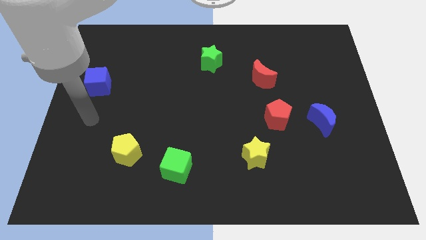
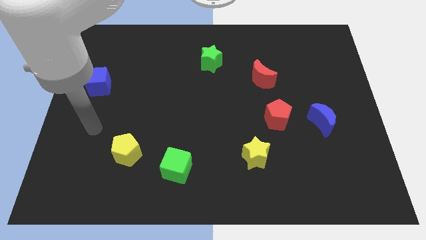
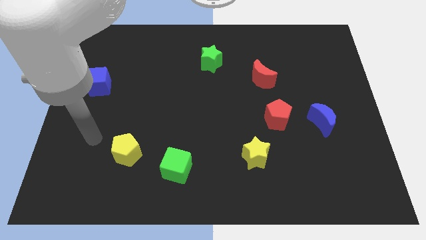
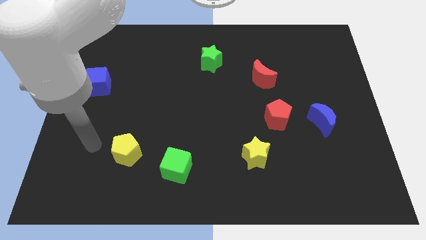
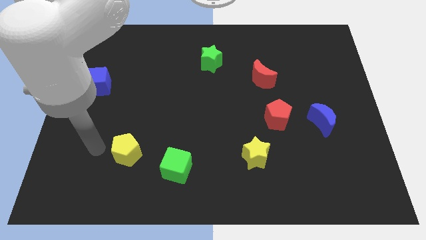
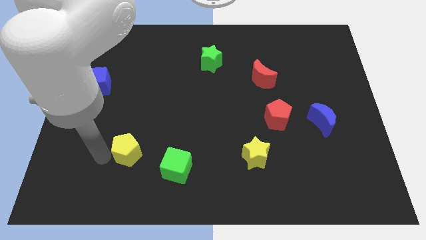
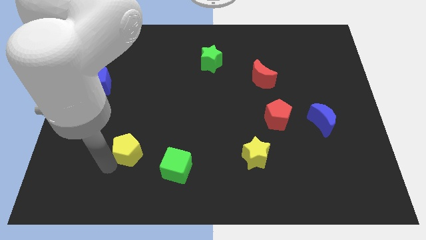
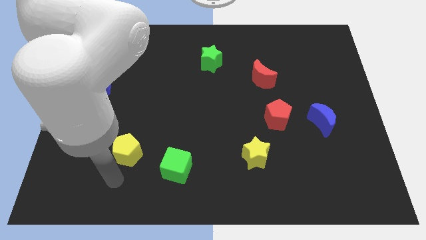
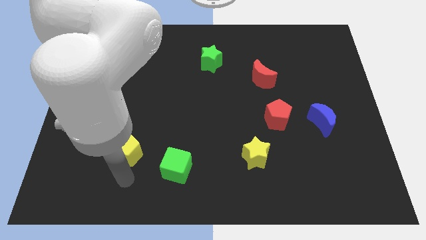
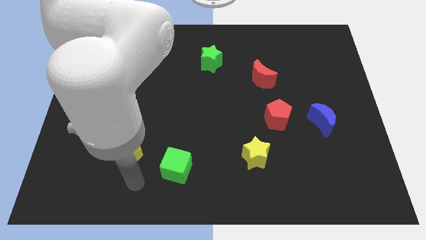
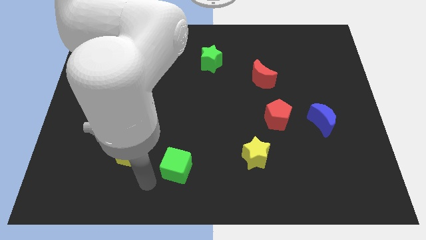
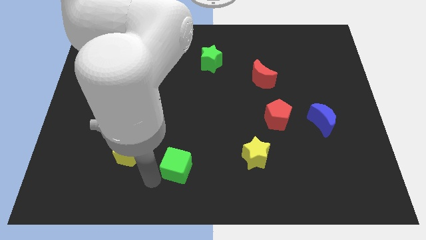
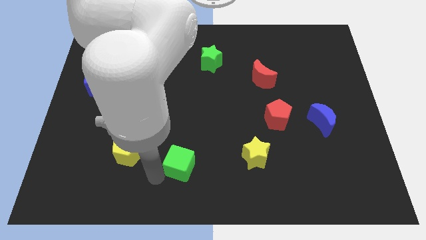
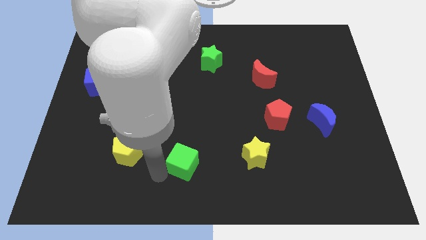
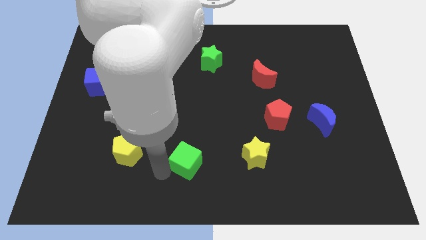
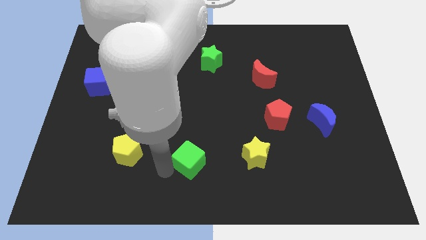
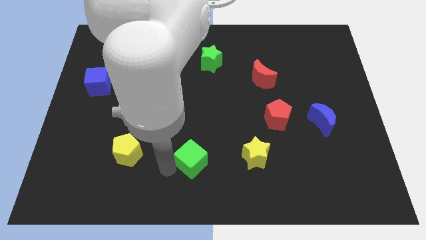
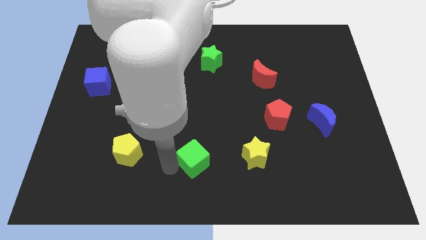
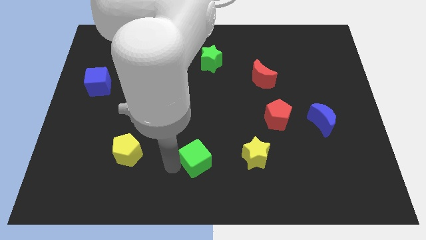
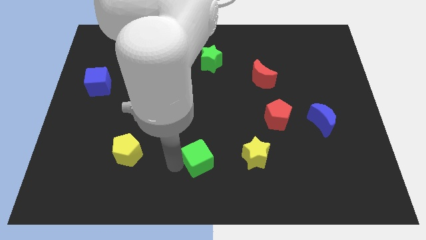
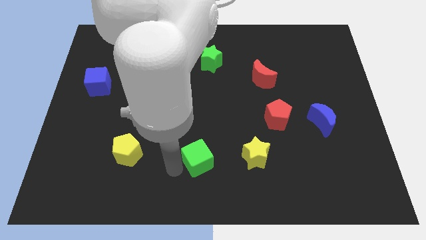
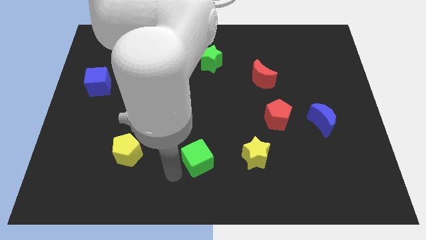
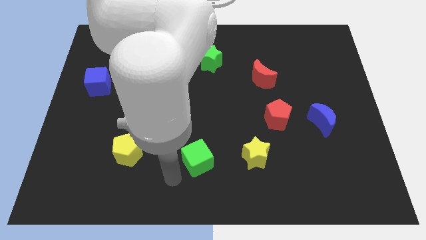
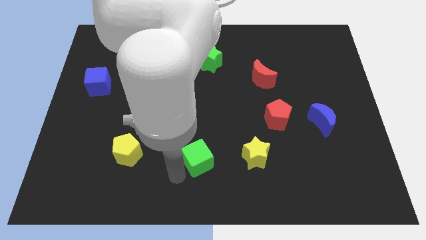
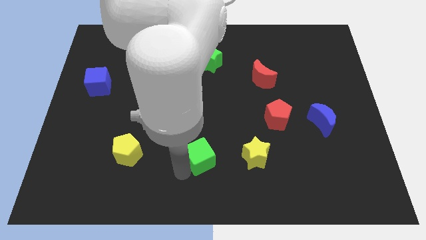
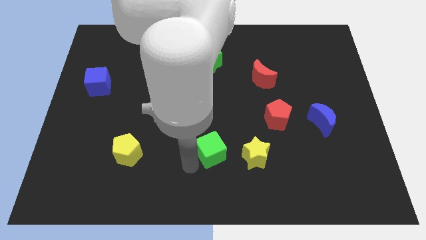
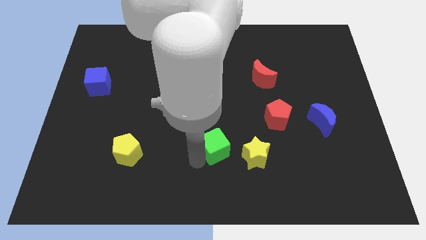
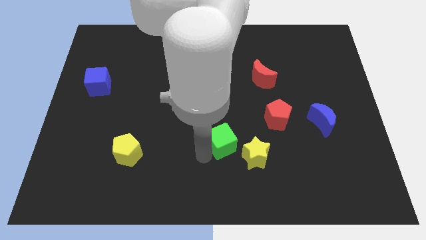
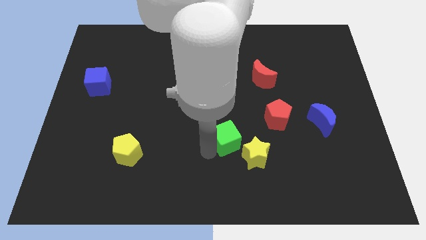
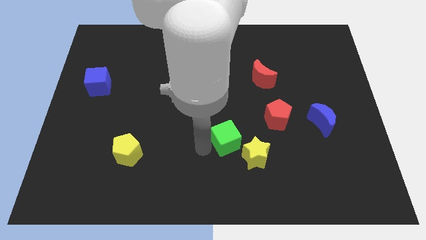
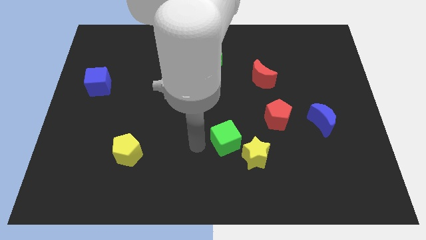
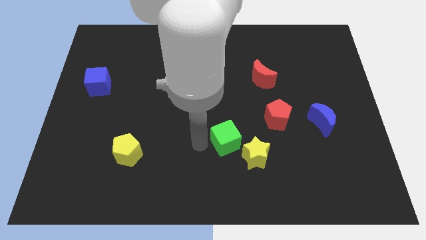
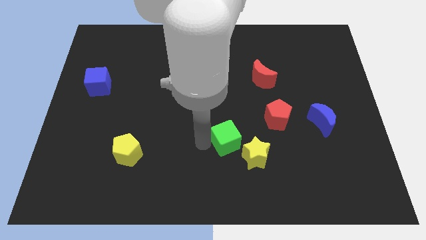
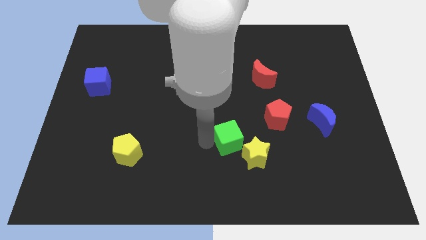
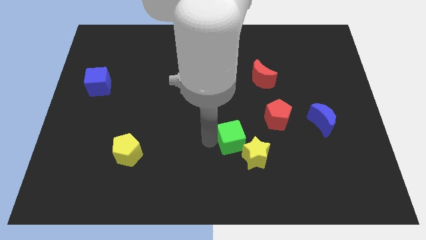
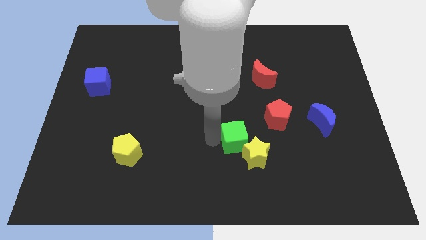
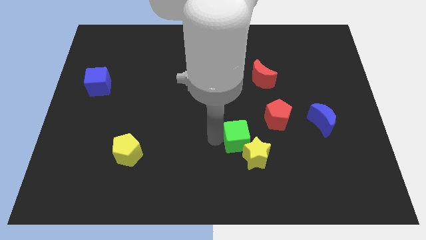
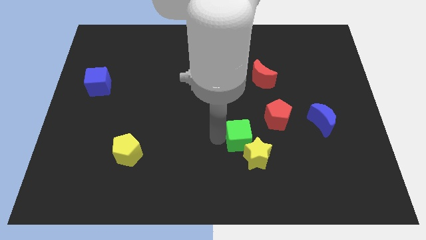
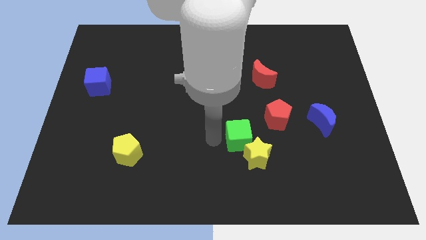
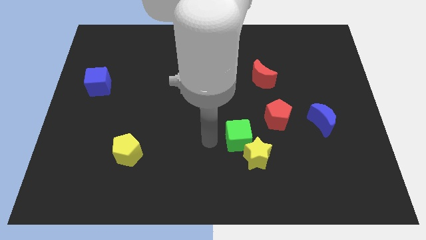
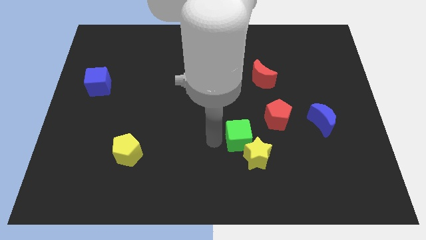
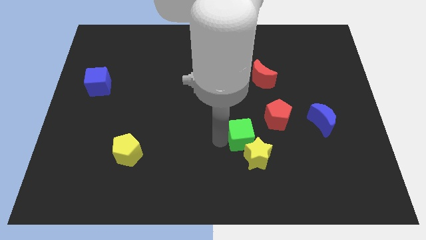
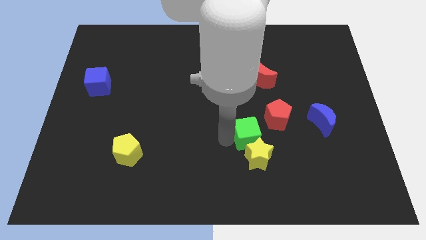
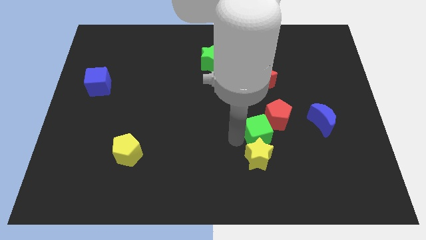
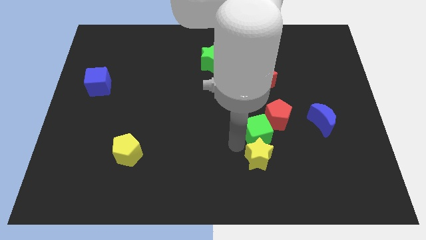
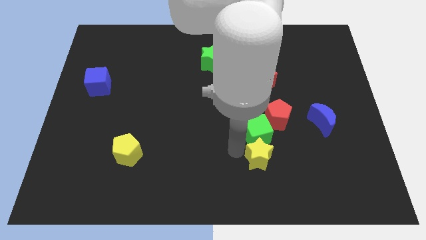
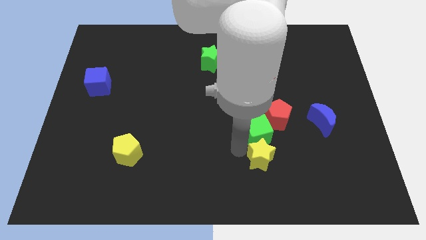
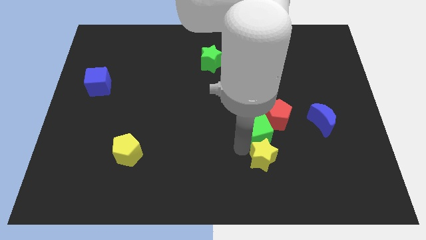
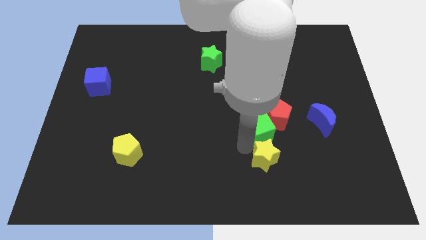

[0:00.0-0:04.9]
slide the green cube next to the red pentagon

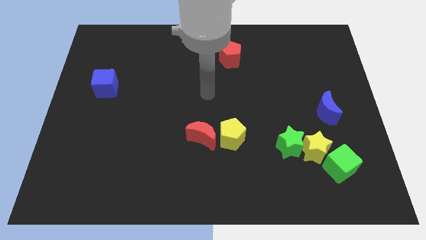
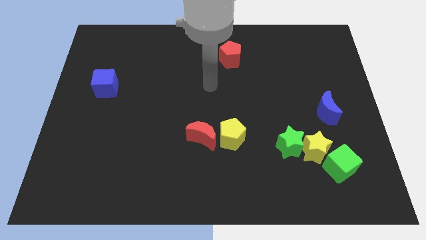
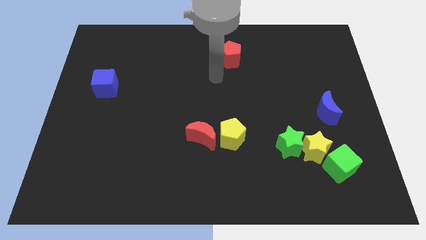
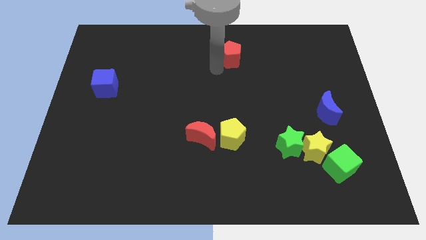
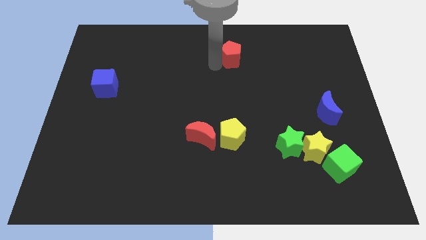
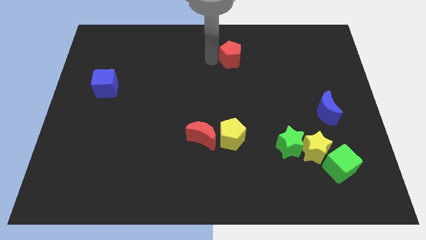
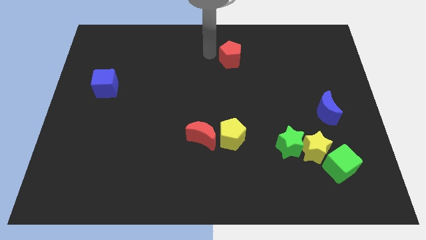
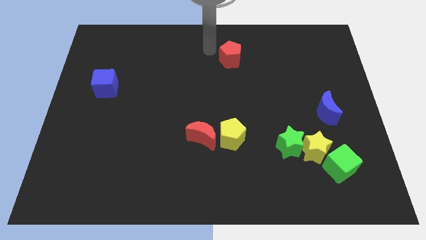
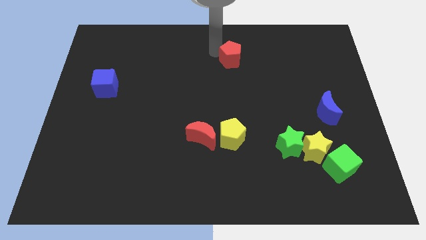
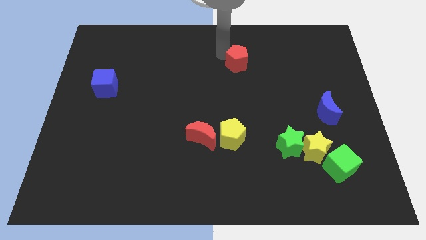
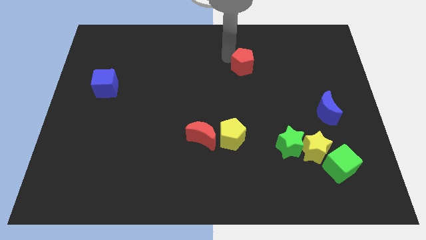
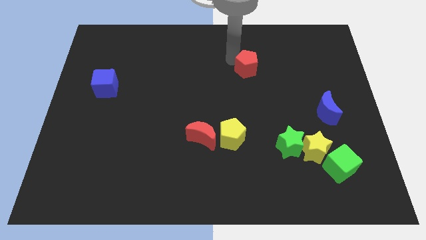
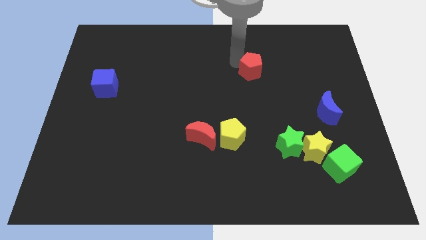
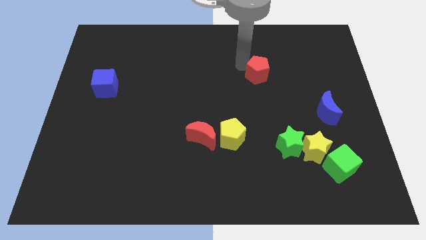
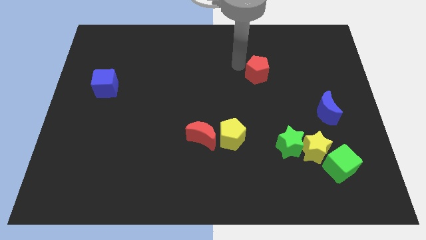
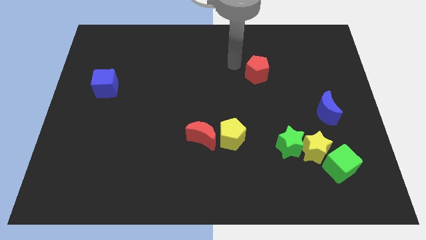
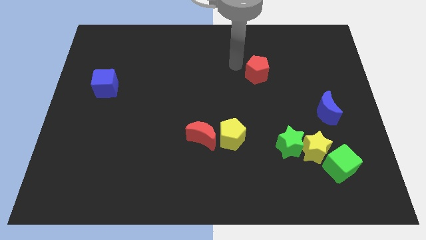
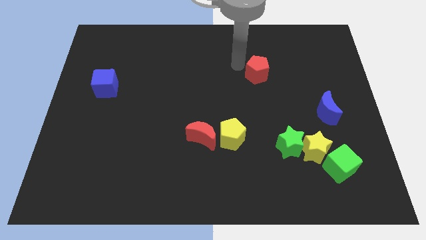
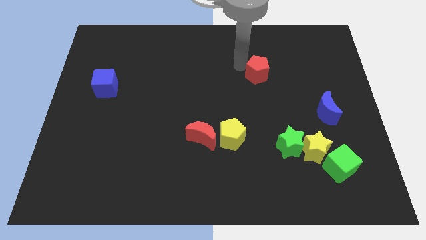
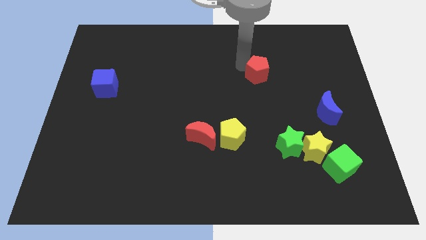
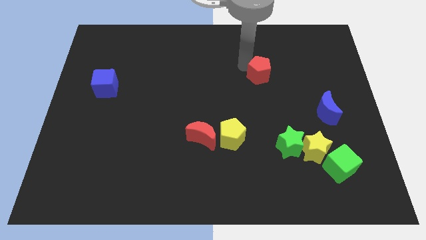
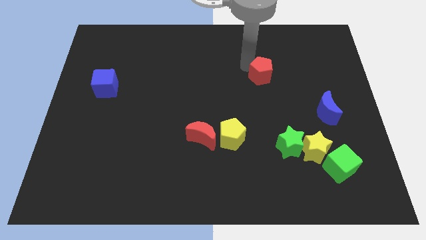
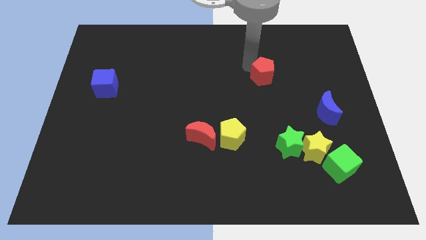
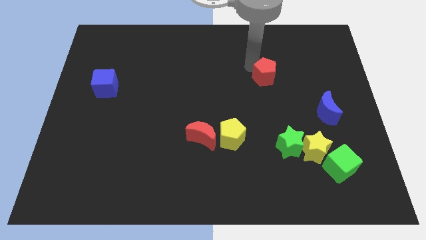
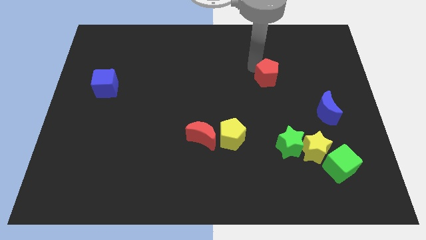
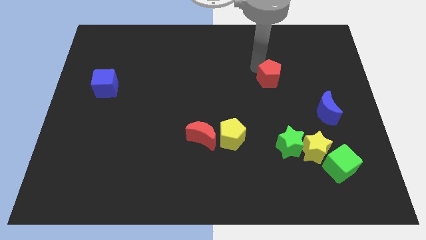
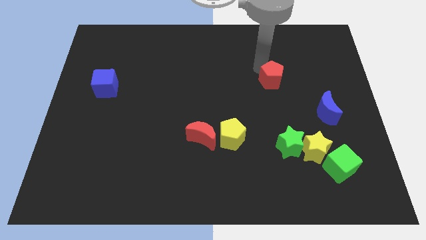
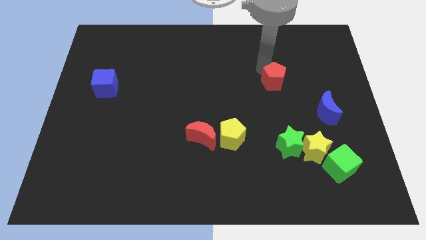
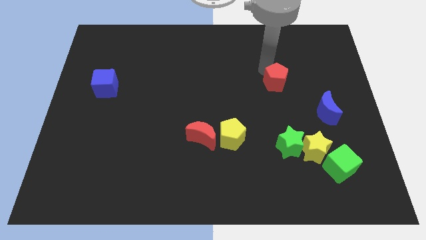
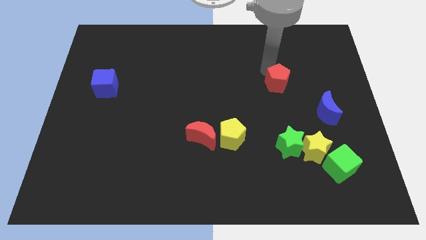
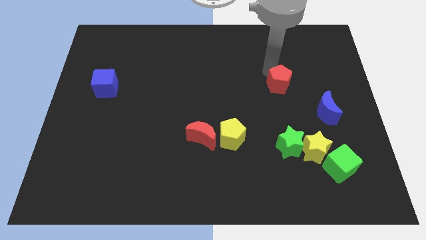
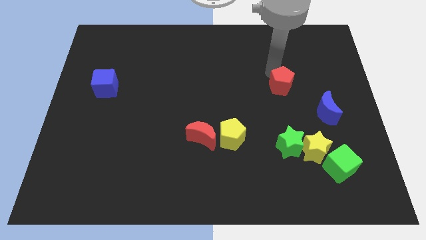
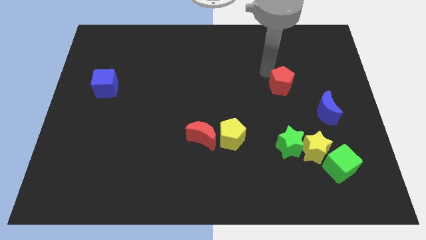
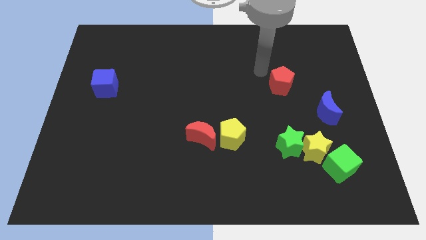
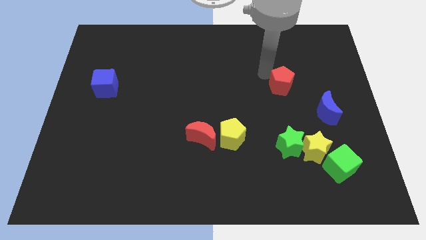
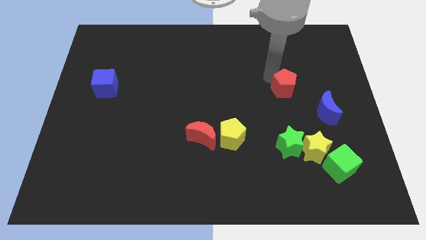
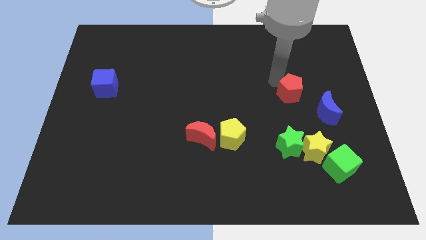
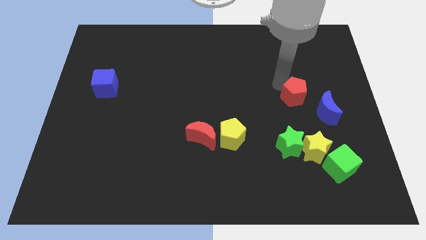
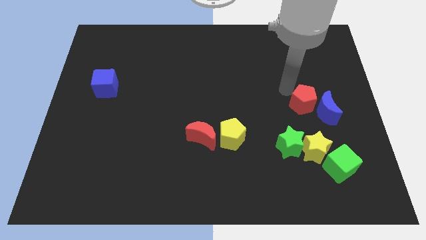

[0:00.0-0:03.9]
move the red pentagon close to the blue moon
